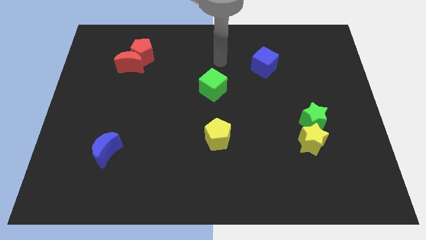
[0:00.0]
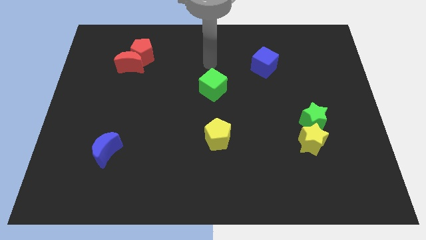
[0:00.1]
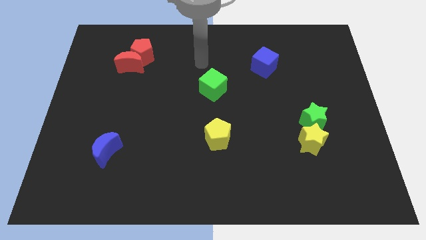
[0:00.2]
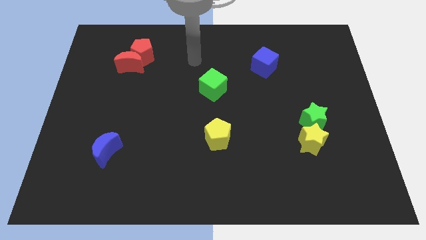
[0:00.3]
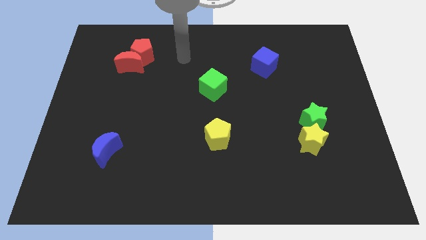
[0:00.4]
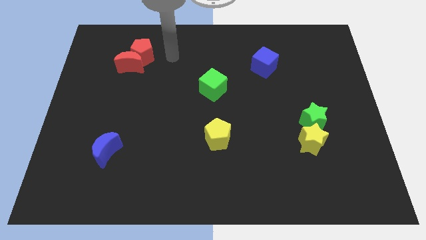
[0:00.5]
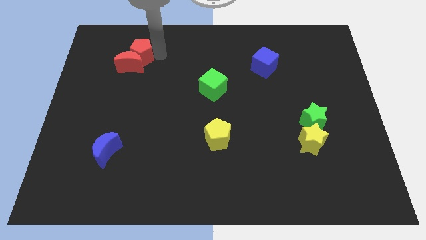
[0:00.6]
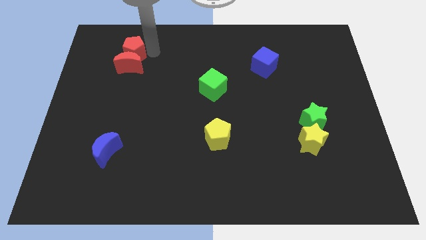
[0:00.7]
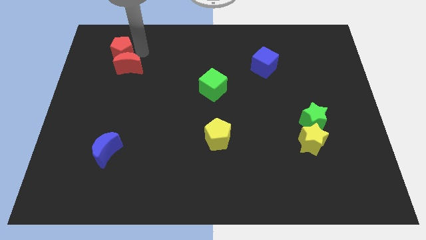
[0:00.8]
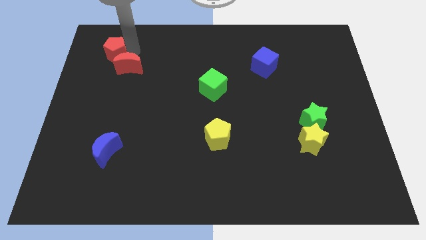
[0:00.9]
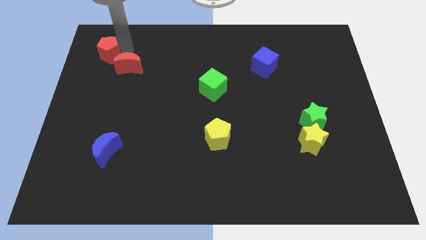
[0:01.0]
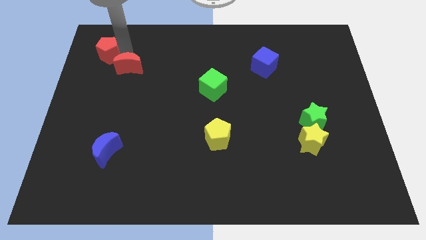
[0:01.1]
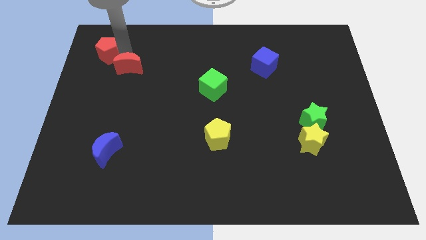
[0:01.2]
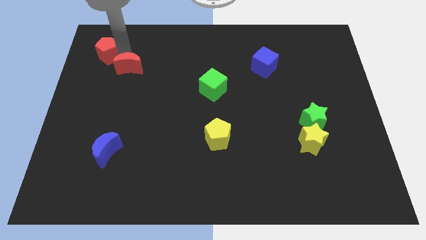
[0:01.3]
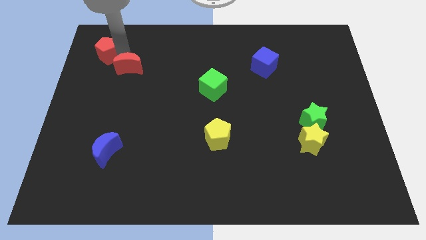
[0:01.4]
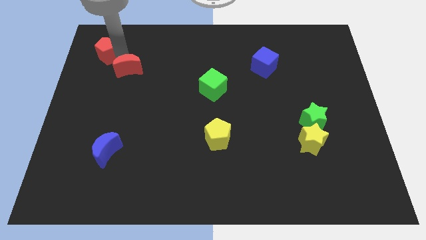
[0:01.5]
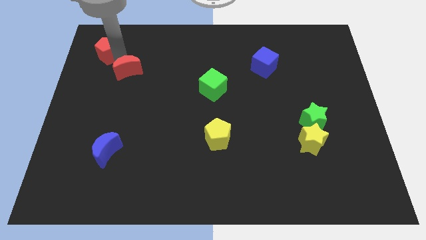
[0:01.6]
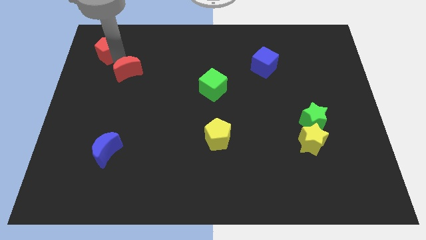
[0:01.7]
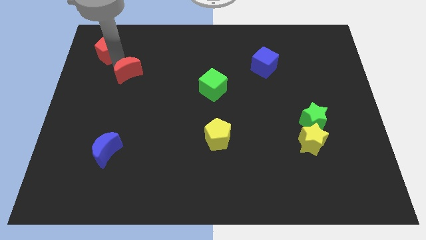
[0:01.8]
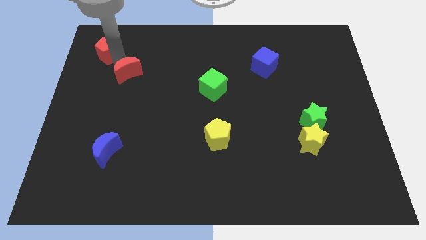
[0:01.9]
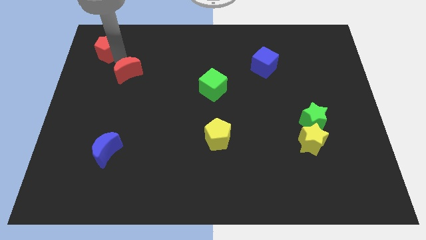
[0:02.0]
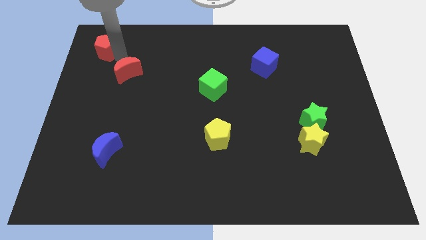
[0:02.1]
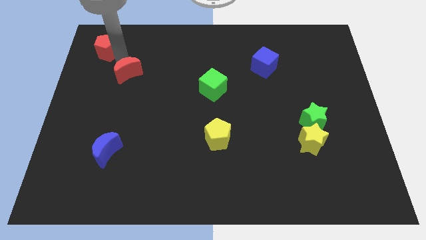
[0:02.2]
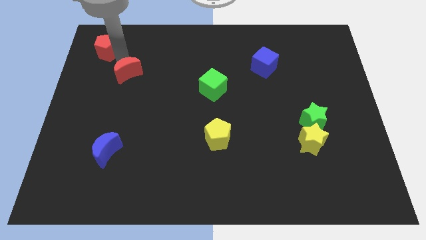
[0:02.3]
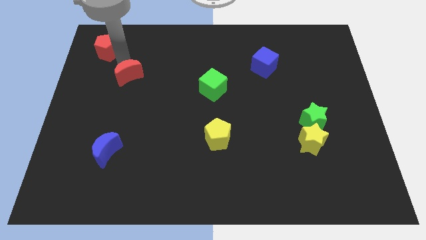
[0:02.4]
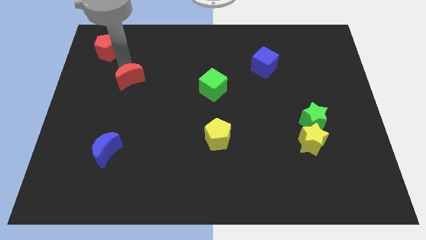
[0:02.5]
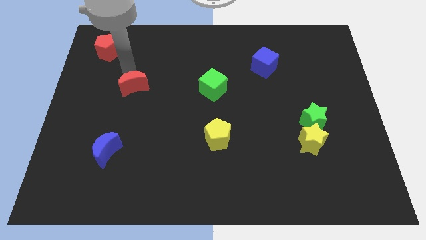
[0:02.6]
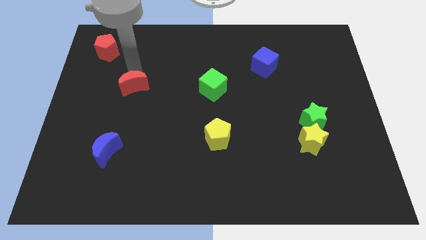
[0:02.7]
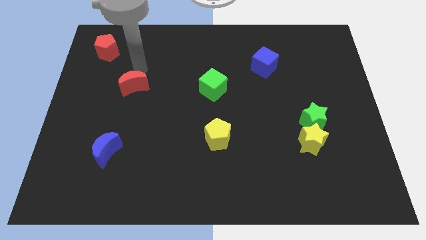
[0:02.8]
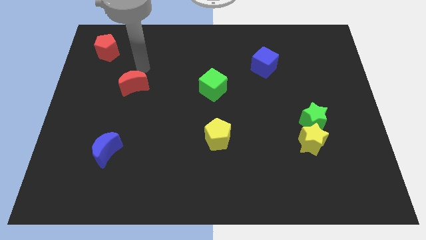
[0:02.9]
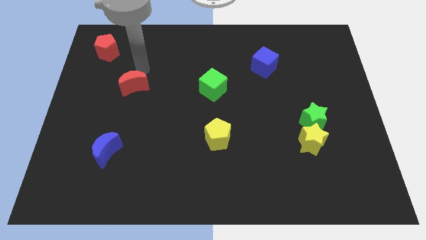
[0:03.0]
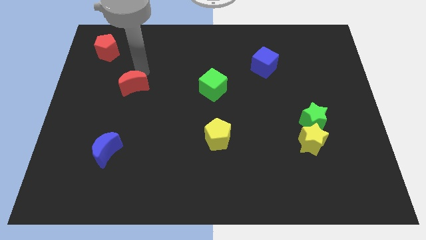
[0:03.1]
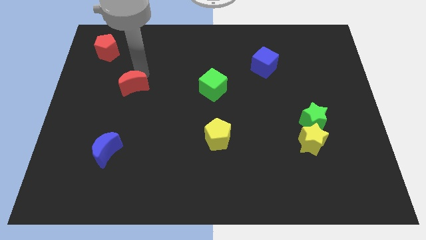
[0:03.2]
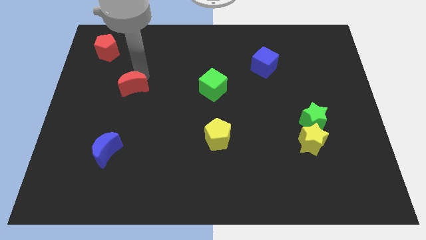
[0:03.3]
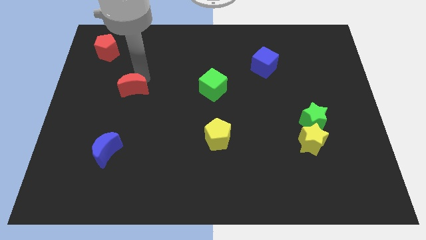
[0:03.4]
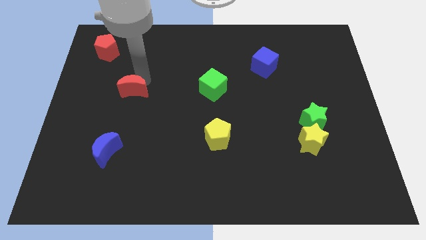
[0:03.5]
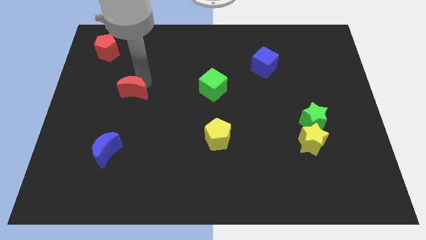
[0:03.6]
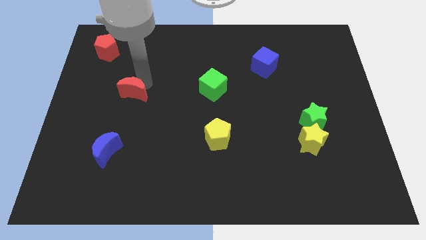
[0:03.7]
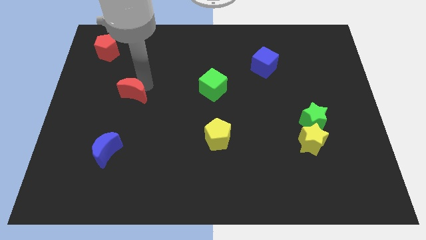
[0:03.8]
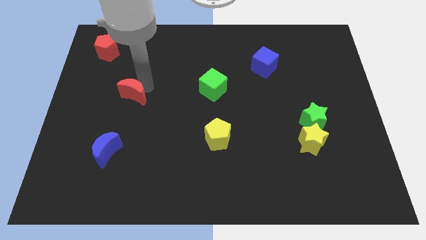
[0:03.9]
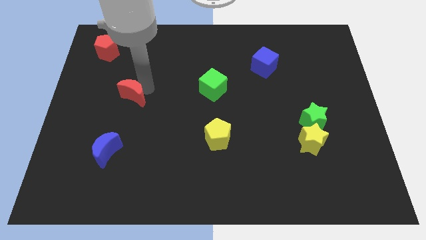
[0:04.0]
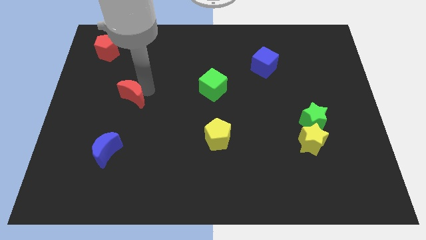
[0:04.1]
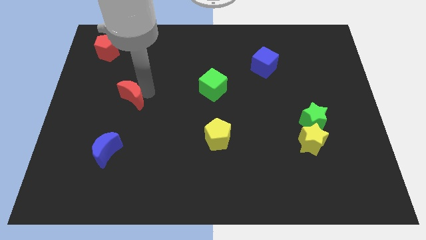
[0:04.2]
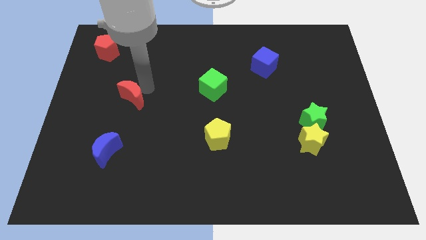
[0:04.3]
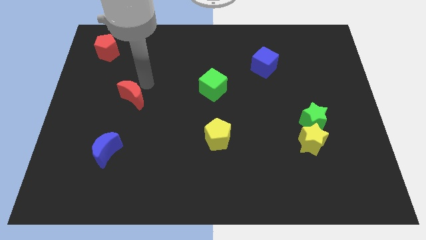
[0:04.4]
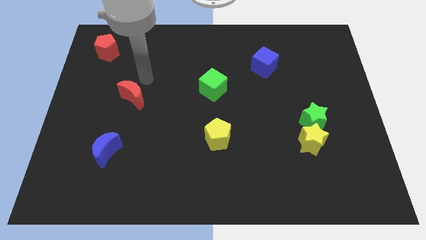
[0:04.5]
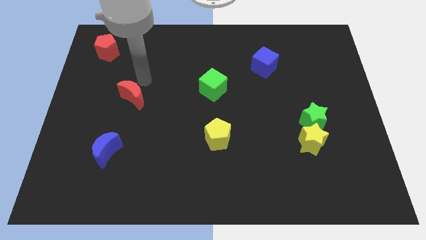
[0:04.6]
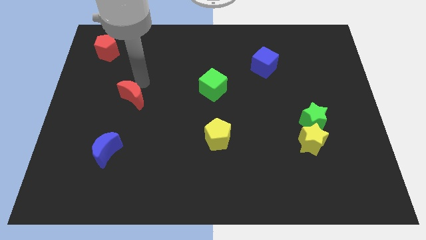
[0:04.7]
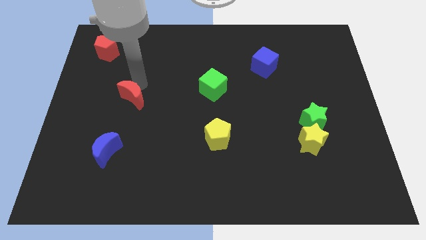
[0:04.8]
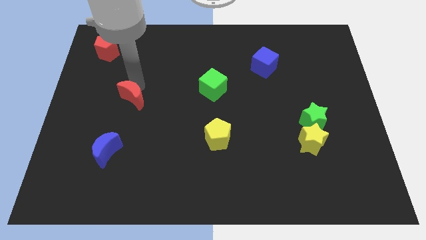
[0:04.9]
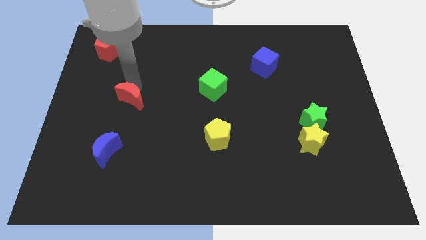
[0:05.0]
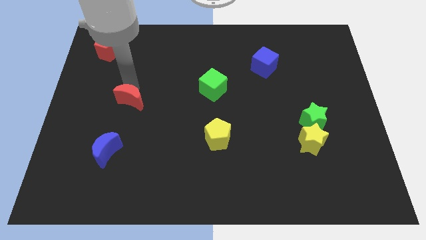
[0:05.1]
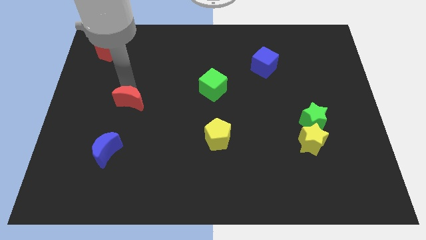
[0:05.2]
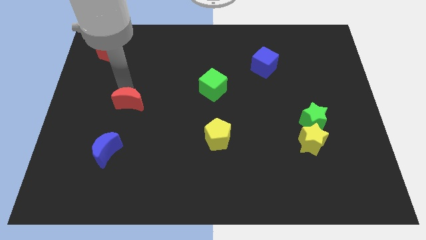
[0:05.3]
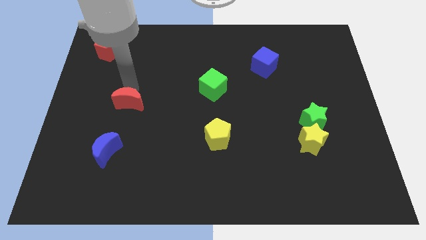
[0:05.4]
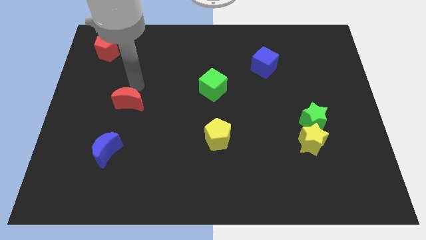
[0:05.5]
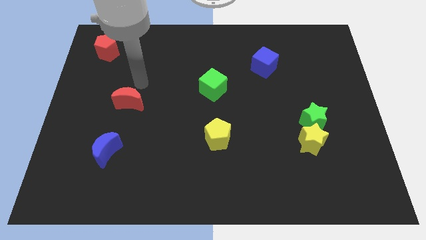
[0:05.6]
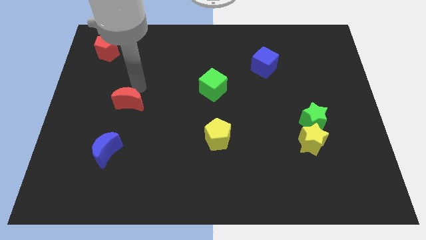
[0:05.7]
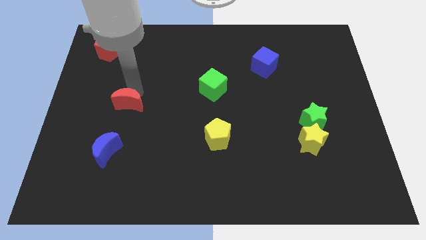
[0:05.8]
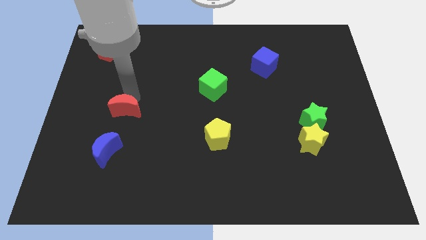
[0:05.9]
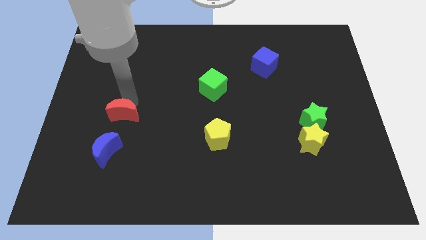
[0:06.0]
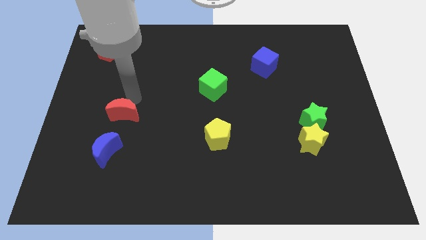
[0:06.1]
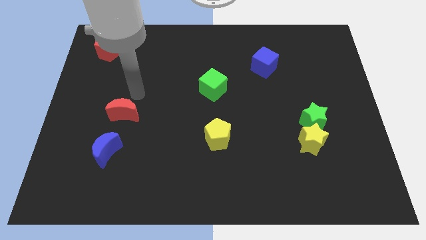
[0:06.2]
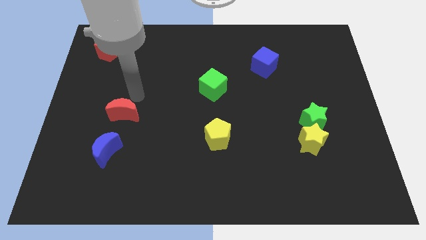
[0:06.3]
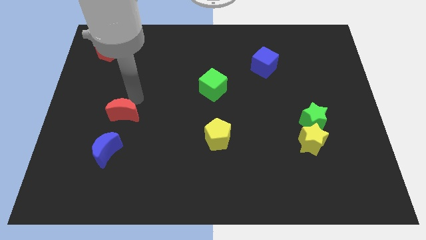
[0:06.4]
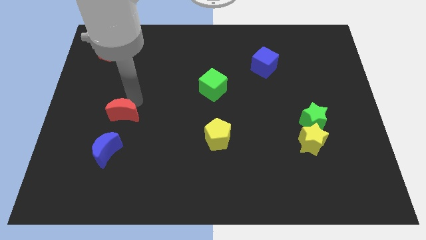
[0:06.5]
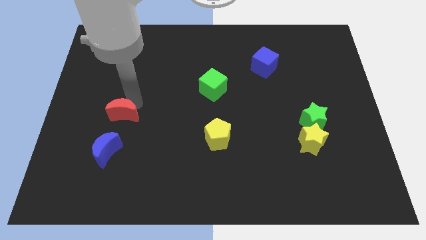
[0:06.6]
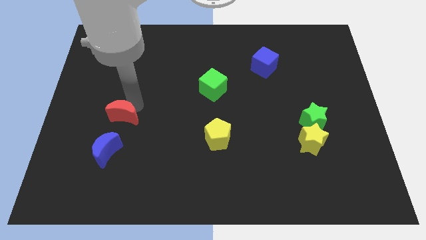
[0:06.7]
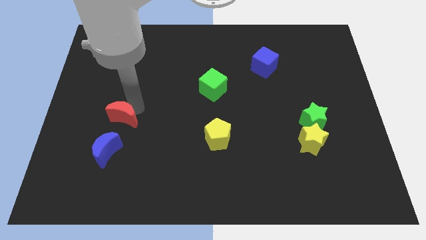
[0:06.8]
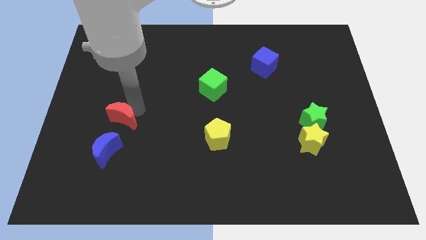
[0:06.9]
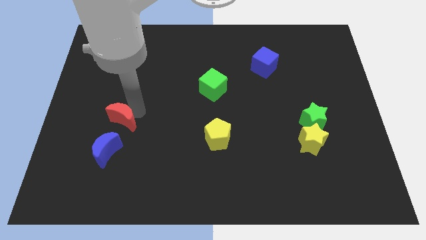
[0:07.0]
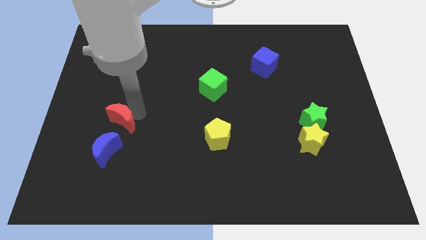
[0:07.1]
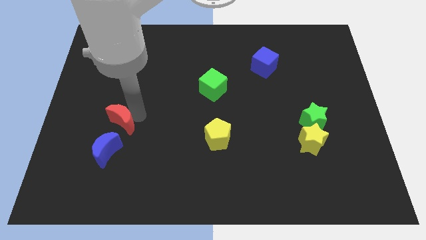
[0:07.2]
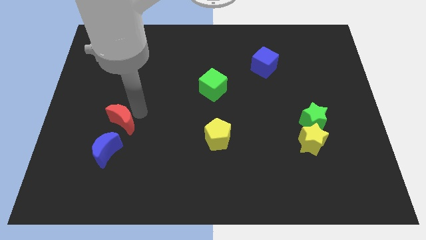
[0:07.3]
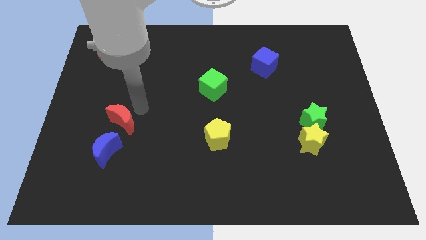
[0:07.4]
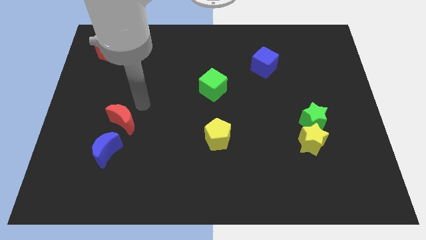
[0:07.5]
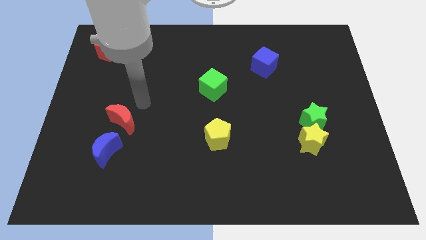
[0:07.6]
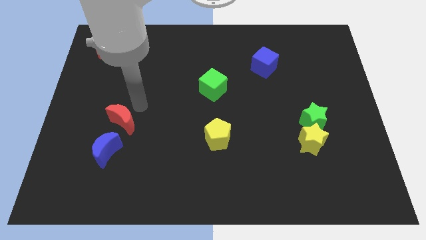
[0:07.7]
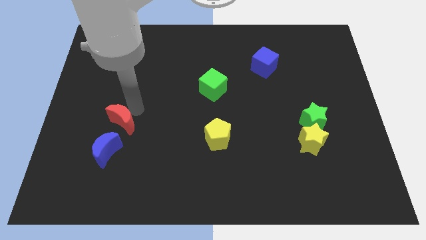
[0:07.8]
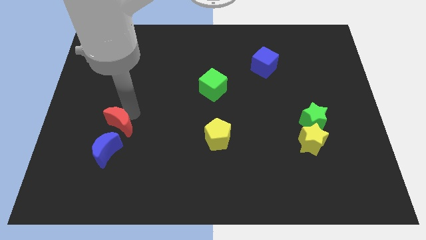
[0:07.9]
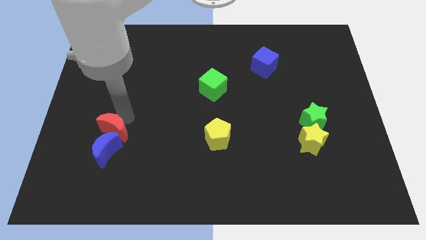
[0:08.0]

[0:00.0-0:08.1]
put the red moon next to the blue moon
